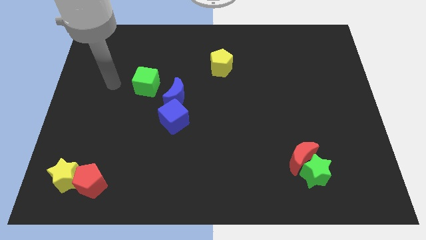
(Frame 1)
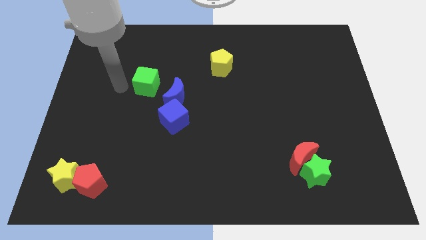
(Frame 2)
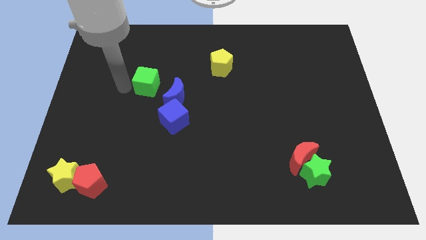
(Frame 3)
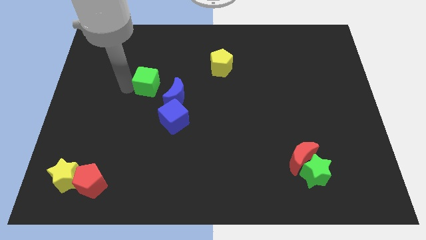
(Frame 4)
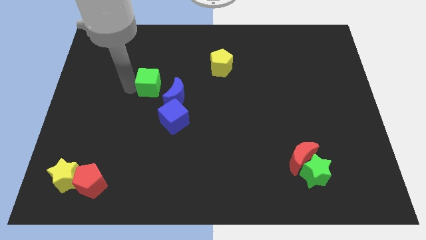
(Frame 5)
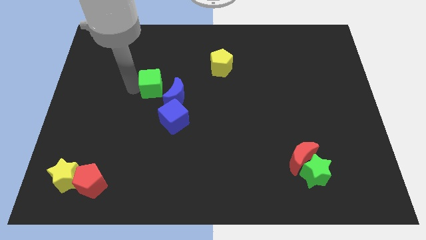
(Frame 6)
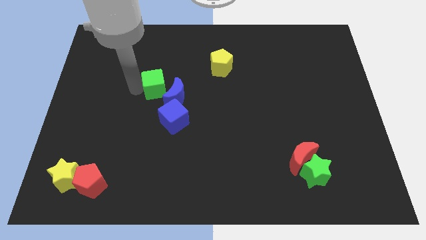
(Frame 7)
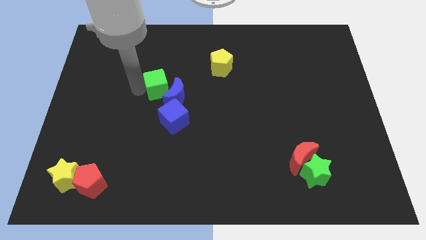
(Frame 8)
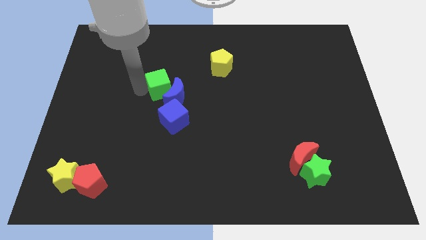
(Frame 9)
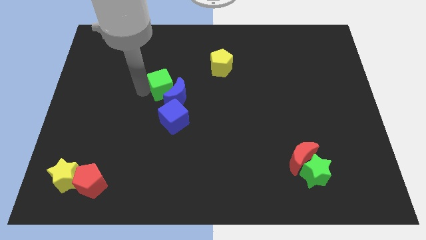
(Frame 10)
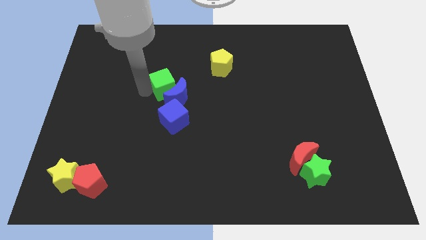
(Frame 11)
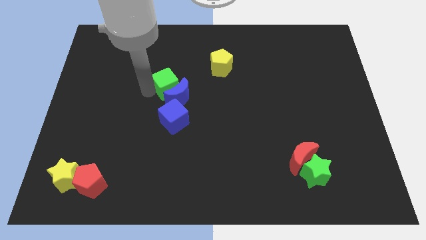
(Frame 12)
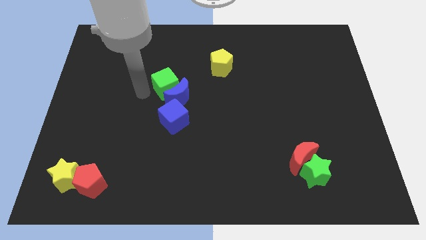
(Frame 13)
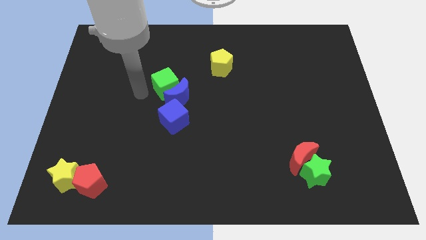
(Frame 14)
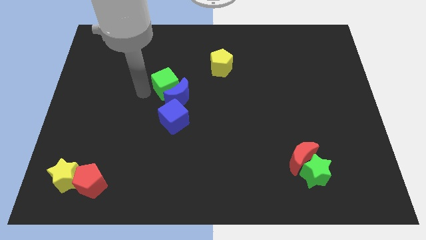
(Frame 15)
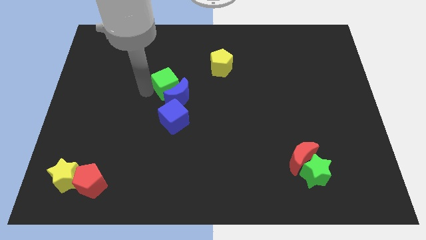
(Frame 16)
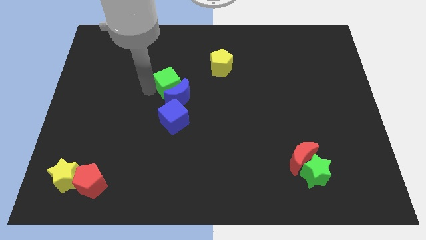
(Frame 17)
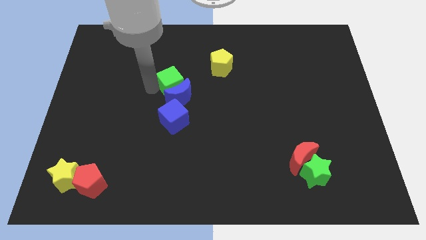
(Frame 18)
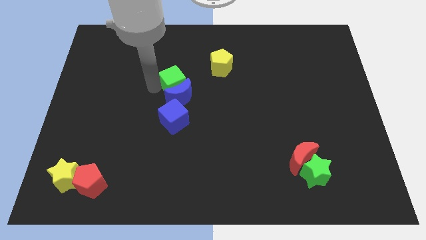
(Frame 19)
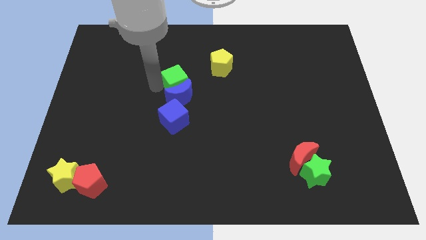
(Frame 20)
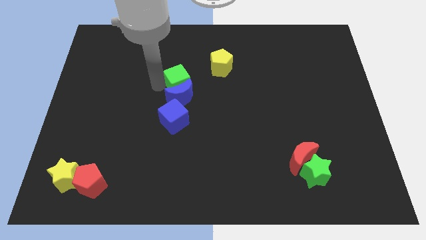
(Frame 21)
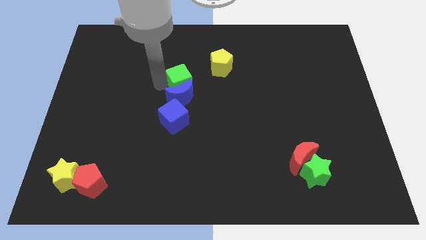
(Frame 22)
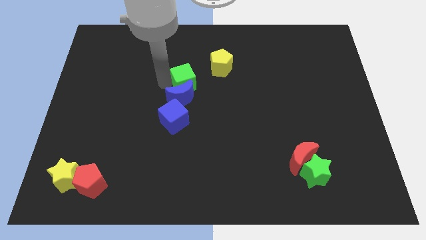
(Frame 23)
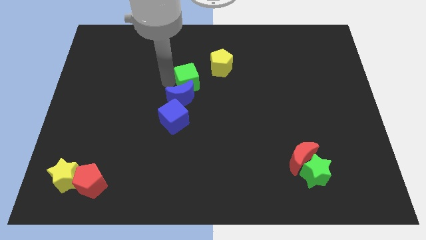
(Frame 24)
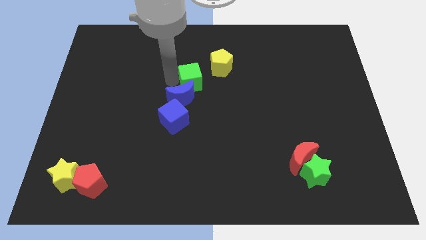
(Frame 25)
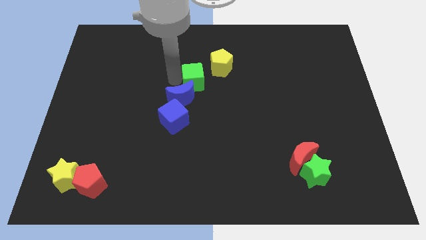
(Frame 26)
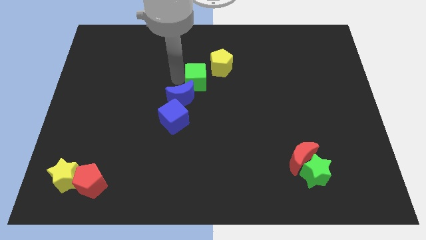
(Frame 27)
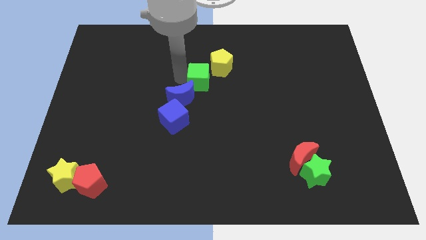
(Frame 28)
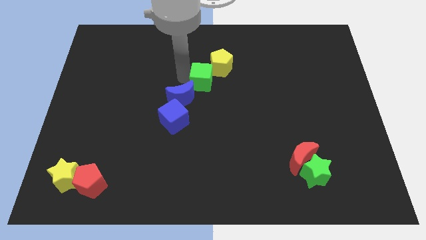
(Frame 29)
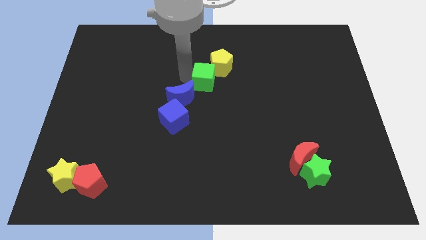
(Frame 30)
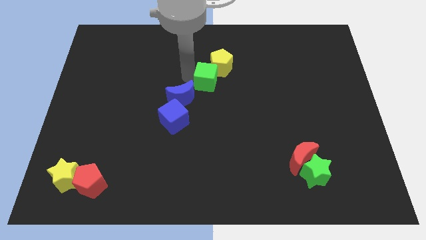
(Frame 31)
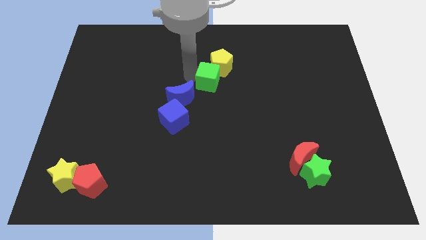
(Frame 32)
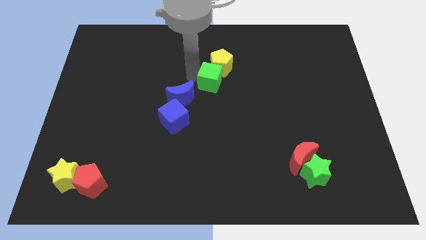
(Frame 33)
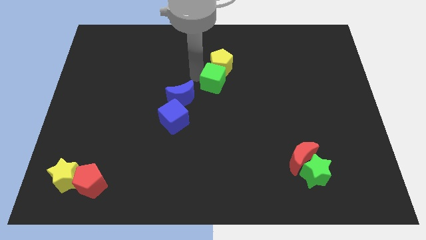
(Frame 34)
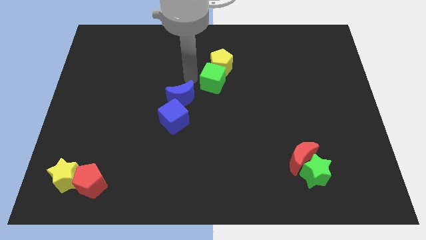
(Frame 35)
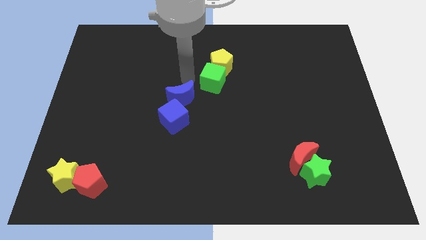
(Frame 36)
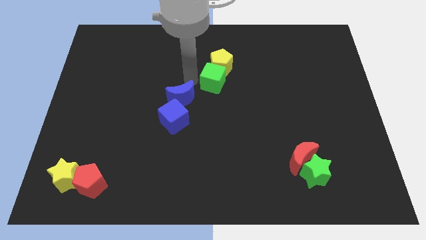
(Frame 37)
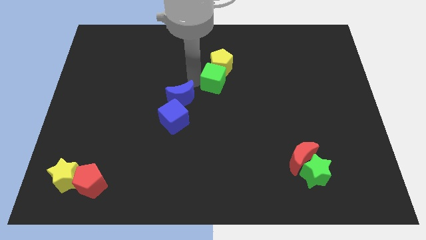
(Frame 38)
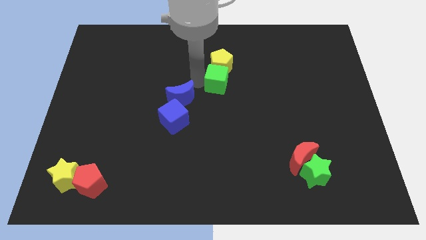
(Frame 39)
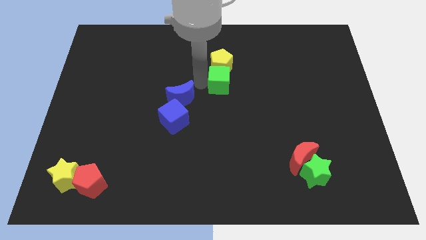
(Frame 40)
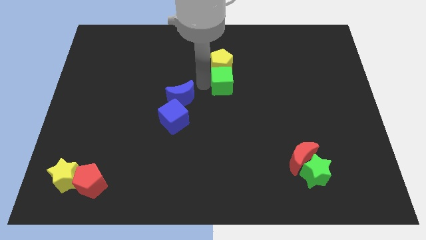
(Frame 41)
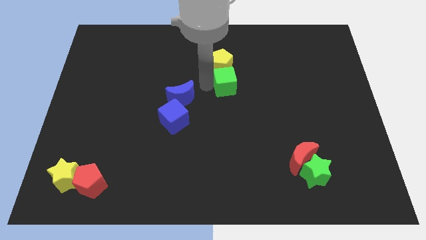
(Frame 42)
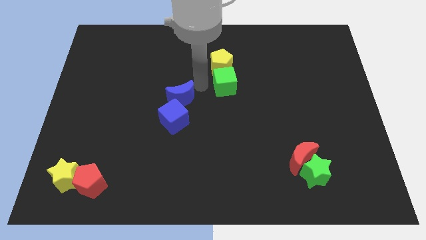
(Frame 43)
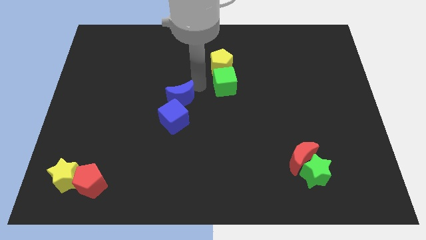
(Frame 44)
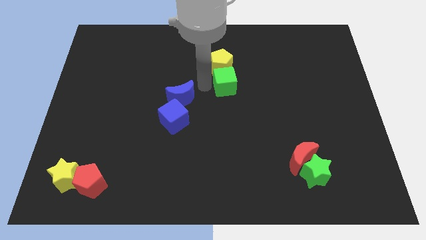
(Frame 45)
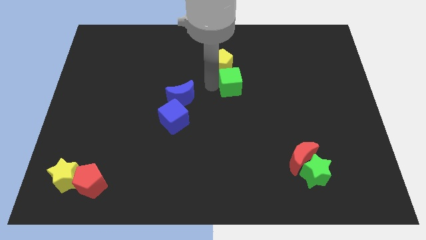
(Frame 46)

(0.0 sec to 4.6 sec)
push the green cube to the right

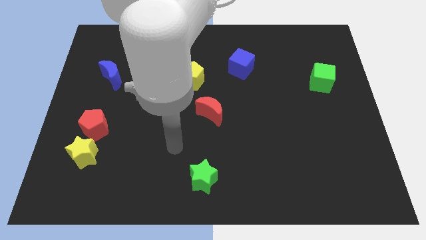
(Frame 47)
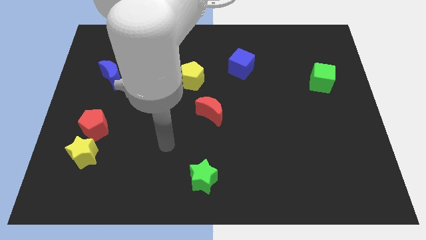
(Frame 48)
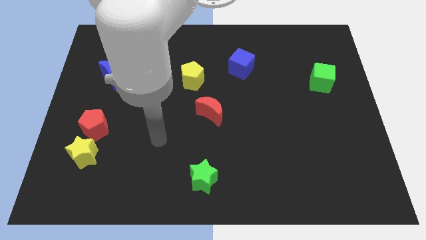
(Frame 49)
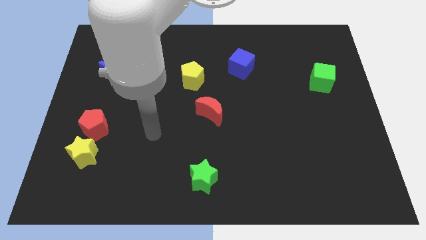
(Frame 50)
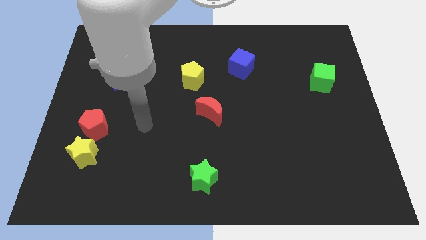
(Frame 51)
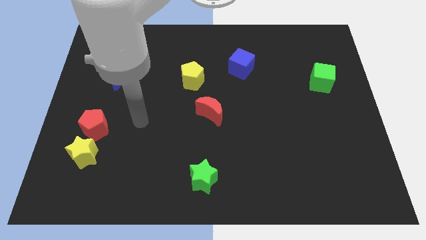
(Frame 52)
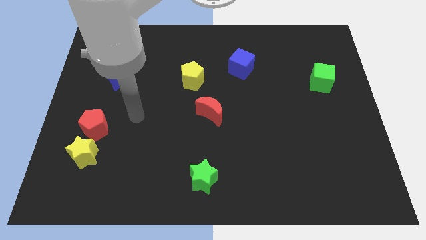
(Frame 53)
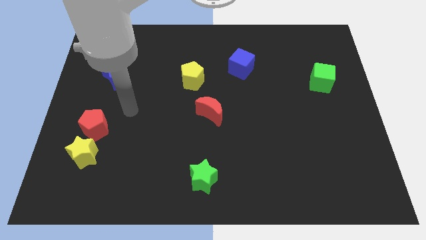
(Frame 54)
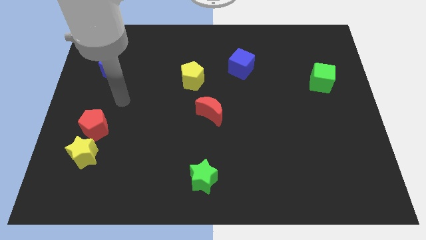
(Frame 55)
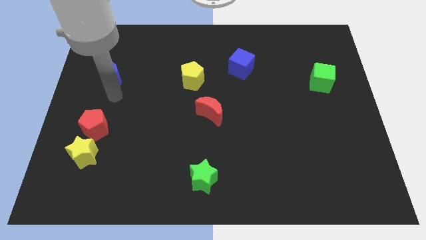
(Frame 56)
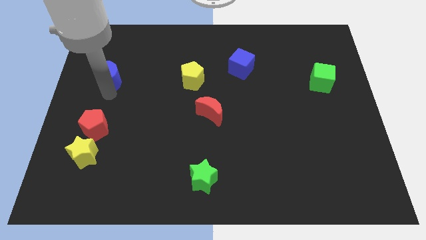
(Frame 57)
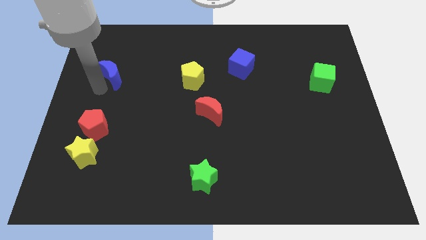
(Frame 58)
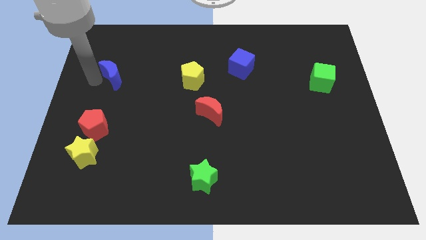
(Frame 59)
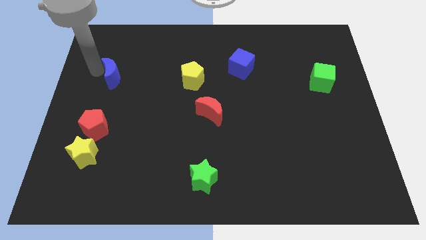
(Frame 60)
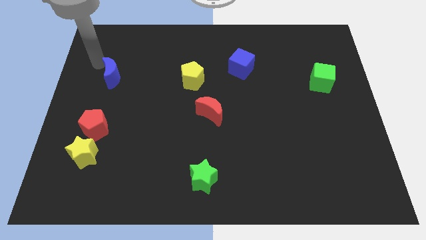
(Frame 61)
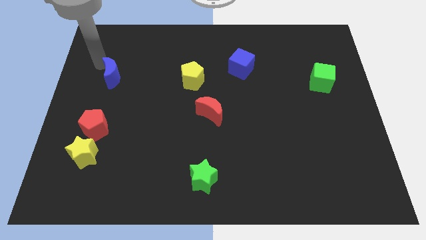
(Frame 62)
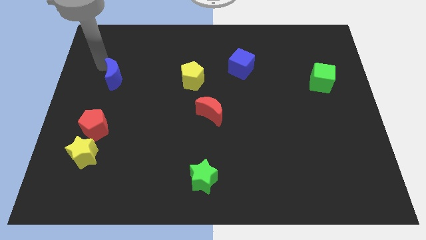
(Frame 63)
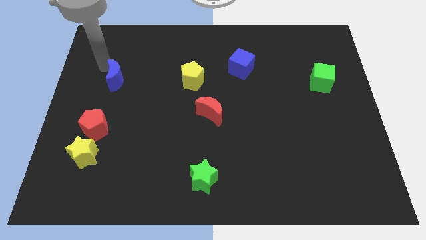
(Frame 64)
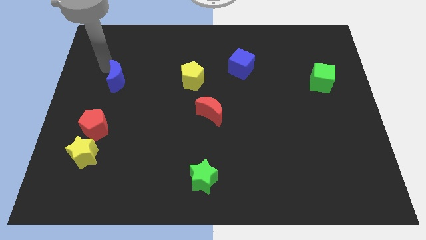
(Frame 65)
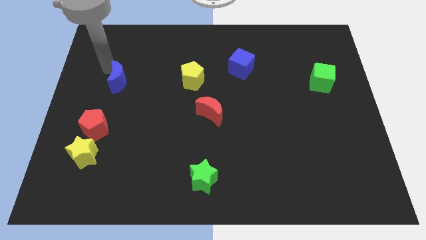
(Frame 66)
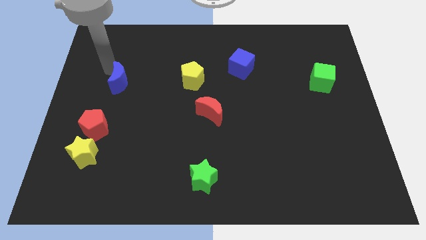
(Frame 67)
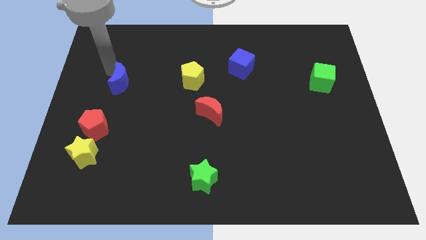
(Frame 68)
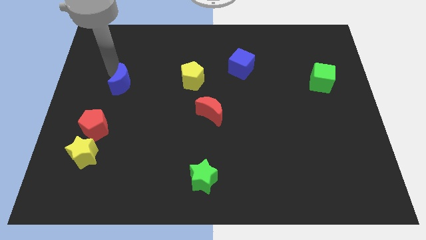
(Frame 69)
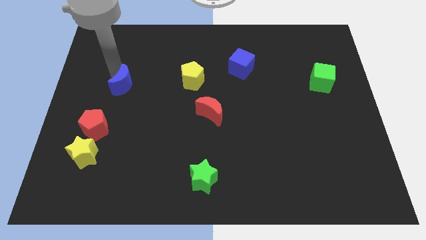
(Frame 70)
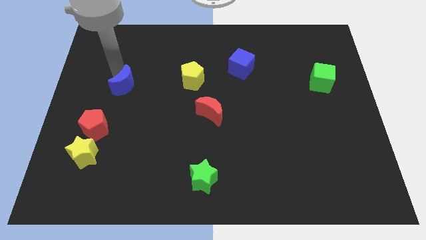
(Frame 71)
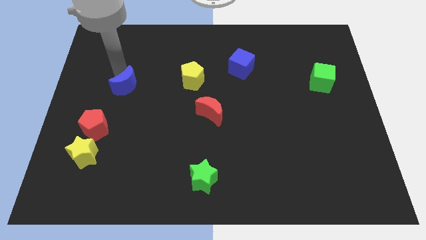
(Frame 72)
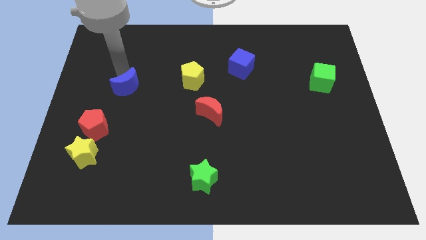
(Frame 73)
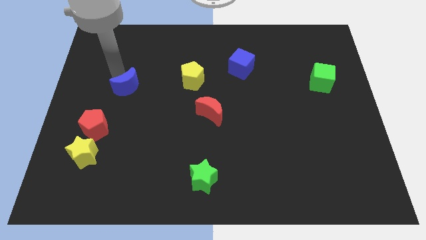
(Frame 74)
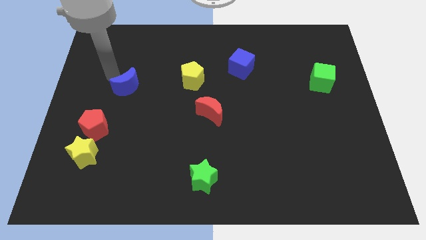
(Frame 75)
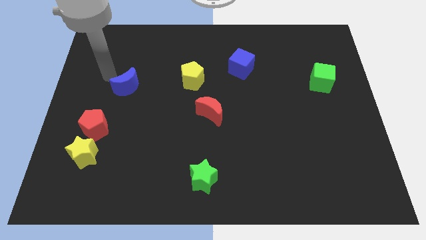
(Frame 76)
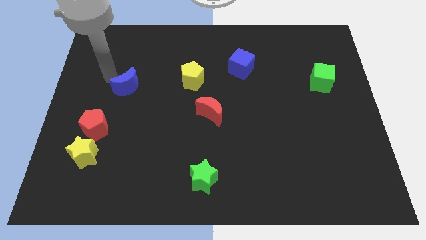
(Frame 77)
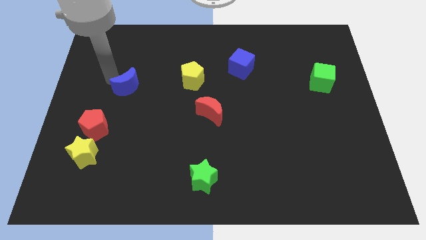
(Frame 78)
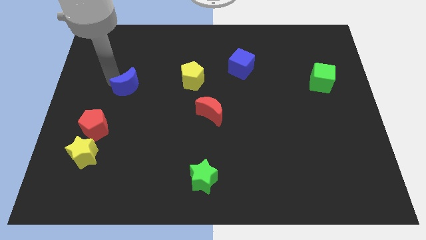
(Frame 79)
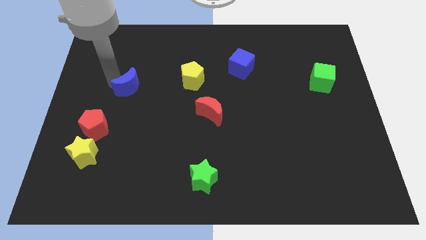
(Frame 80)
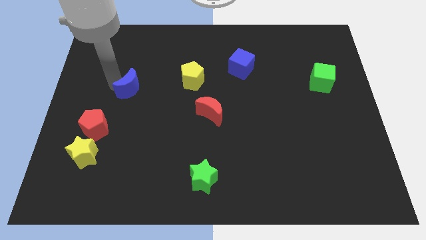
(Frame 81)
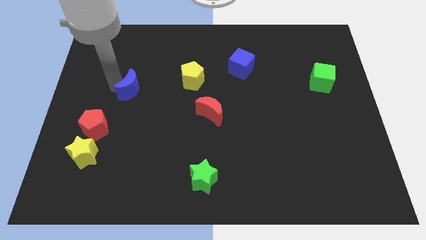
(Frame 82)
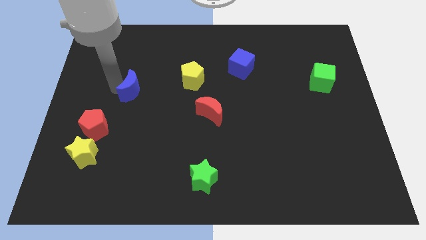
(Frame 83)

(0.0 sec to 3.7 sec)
move the blue moon down and to the right diagonally a little bit
